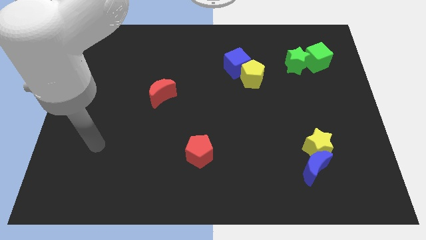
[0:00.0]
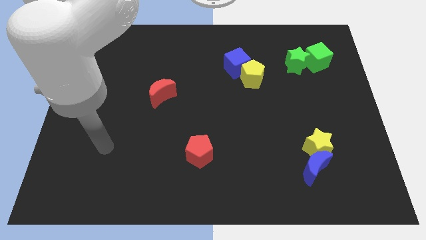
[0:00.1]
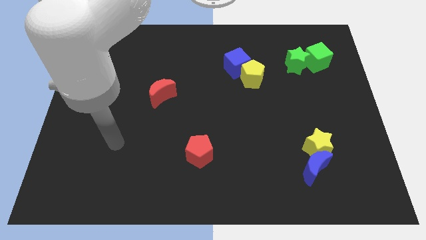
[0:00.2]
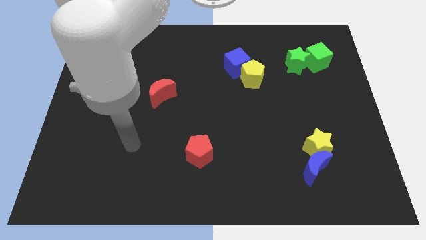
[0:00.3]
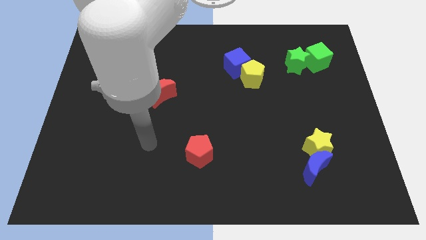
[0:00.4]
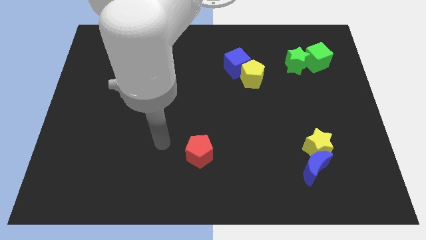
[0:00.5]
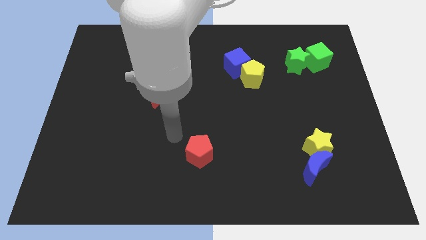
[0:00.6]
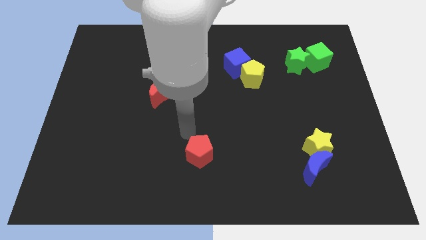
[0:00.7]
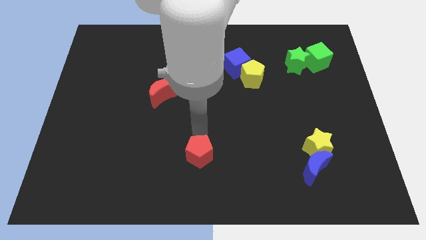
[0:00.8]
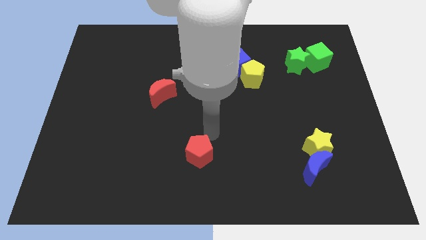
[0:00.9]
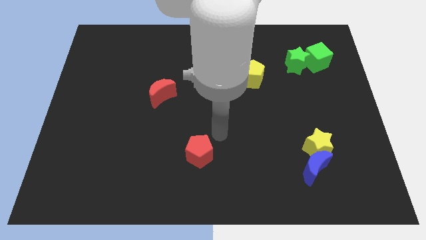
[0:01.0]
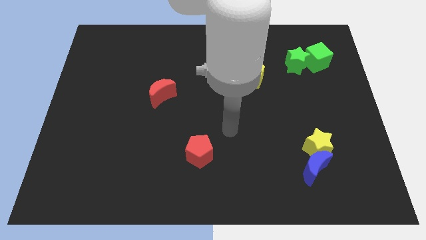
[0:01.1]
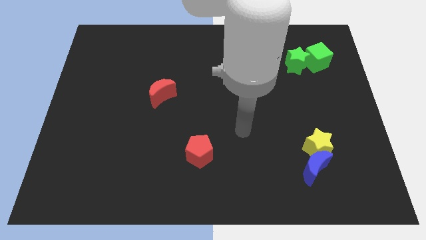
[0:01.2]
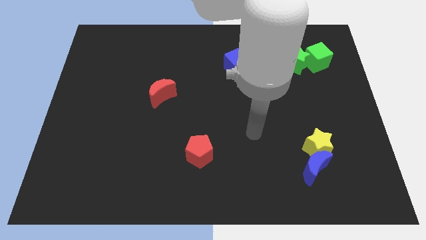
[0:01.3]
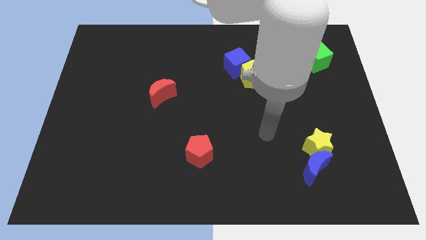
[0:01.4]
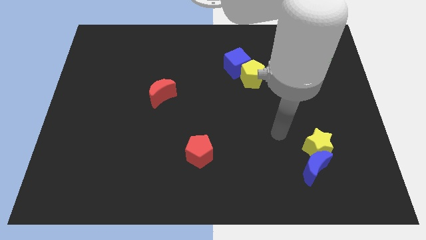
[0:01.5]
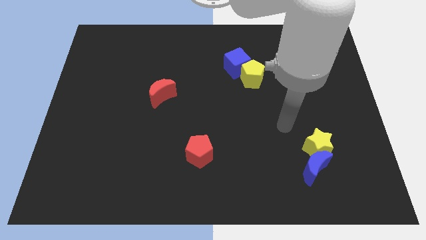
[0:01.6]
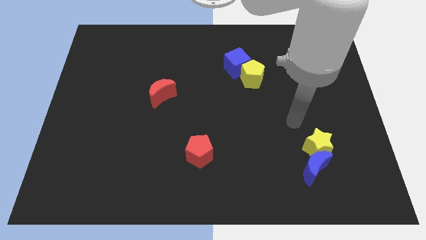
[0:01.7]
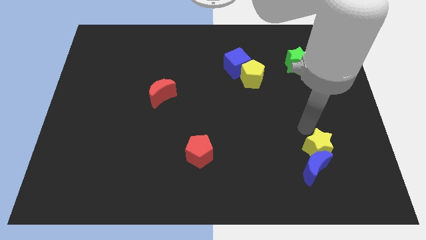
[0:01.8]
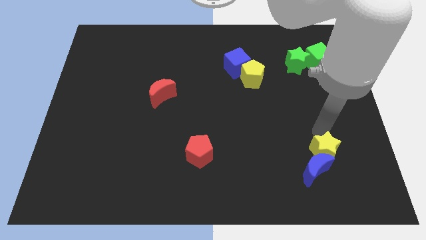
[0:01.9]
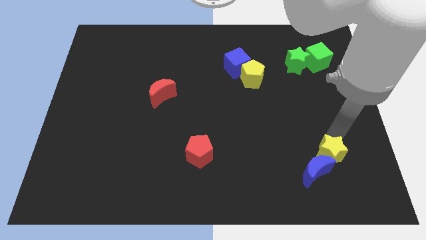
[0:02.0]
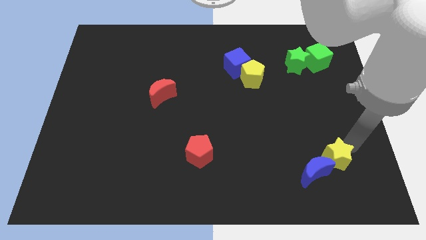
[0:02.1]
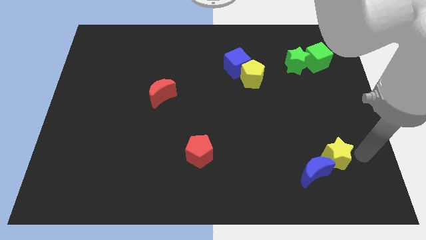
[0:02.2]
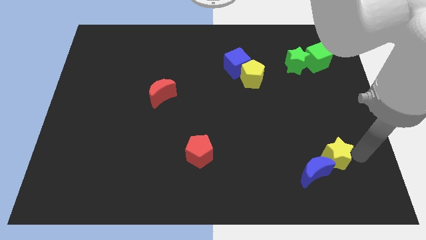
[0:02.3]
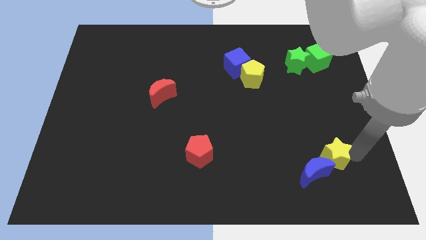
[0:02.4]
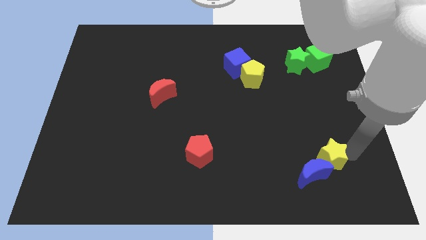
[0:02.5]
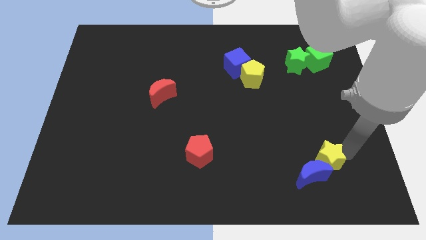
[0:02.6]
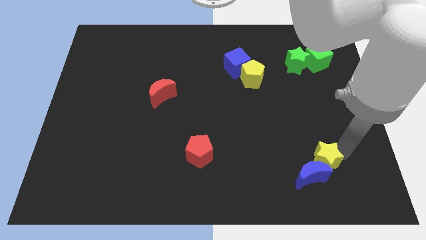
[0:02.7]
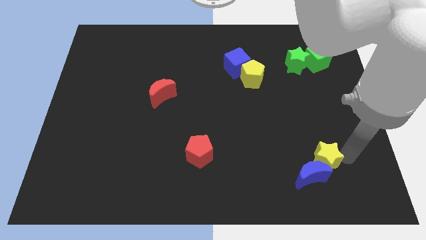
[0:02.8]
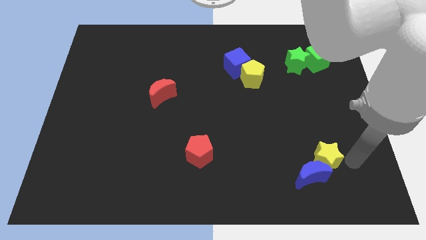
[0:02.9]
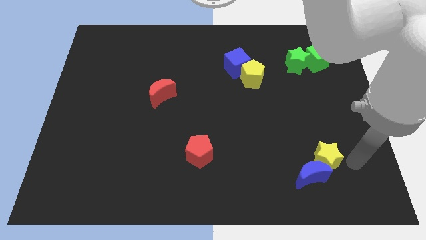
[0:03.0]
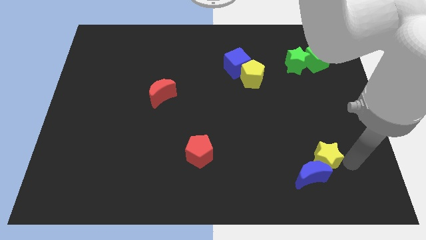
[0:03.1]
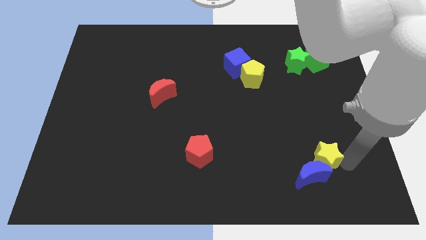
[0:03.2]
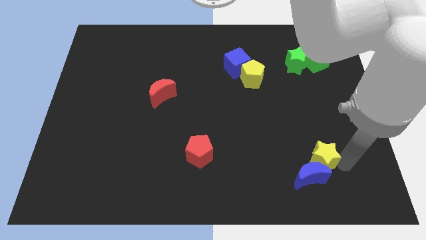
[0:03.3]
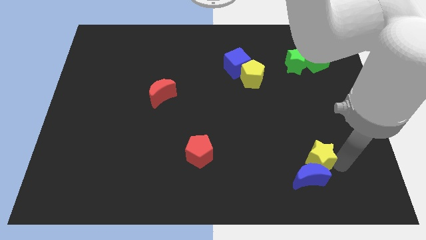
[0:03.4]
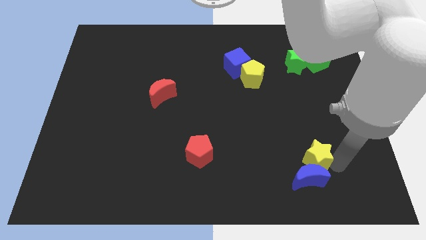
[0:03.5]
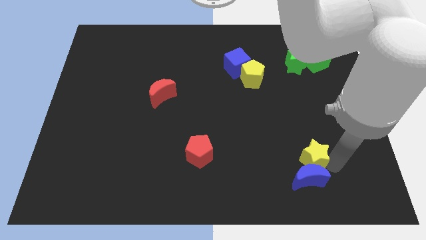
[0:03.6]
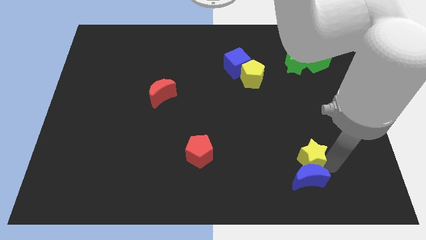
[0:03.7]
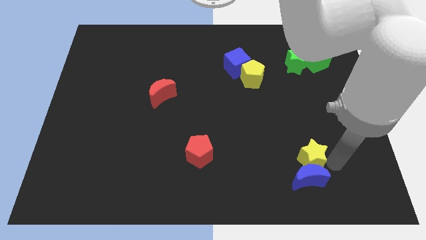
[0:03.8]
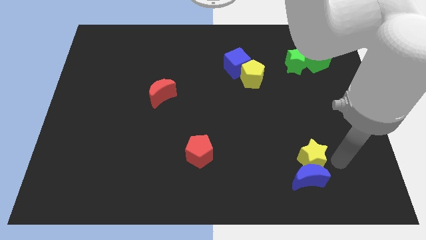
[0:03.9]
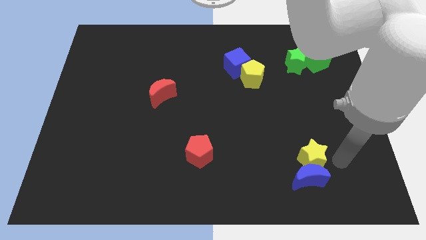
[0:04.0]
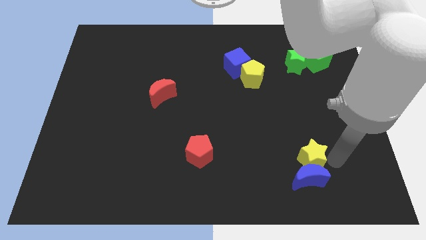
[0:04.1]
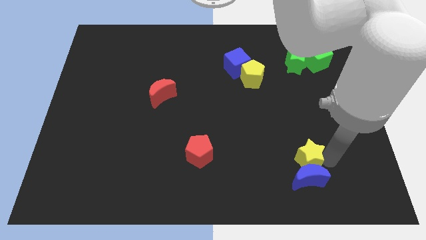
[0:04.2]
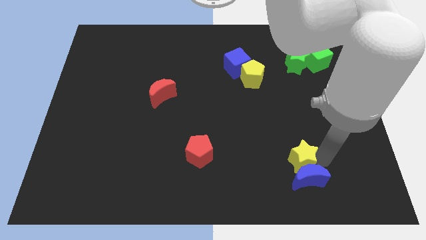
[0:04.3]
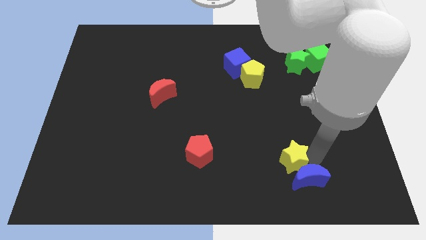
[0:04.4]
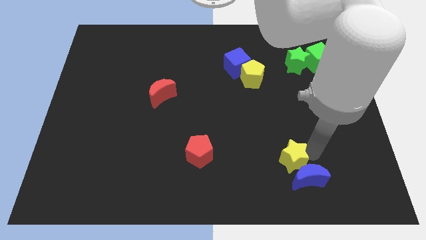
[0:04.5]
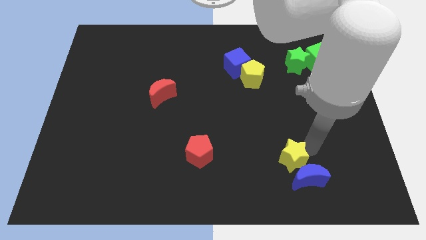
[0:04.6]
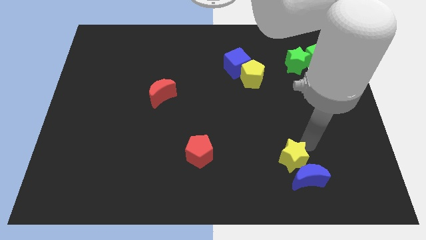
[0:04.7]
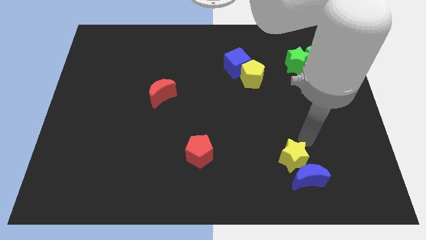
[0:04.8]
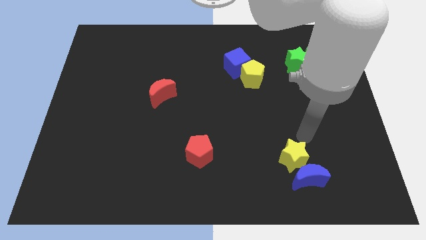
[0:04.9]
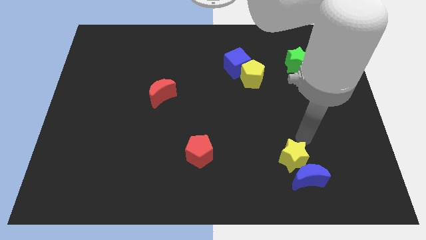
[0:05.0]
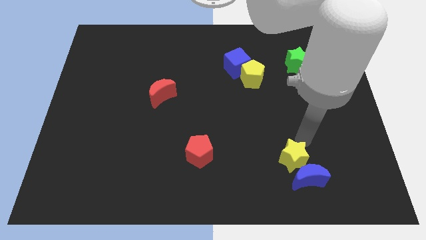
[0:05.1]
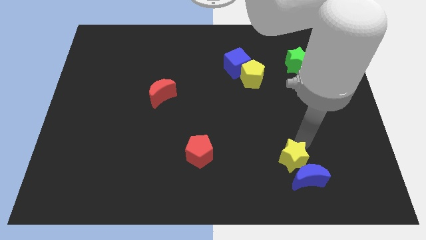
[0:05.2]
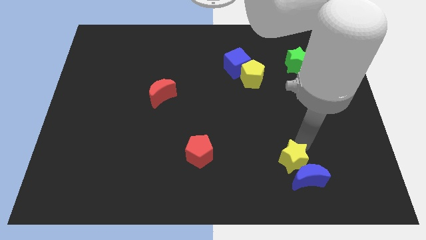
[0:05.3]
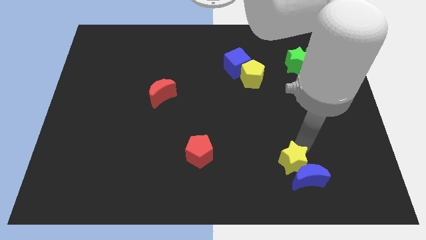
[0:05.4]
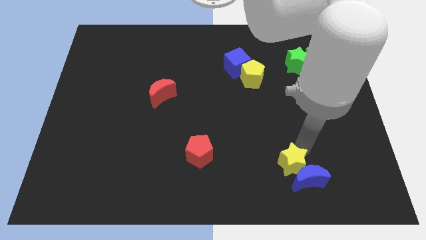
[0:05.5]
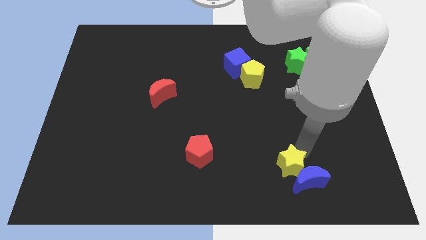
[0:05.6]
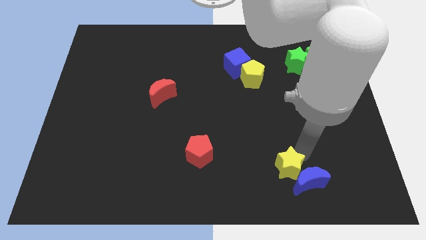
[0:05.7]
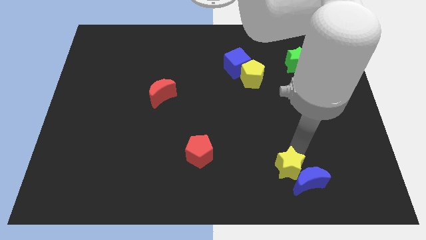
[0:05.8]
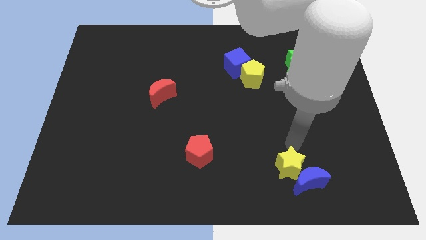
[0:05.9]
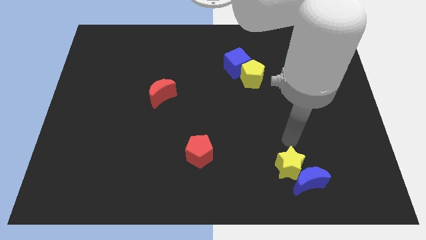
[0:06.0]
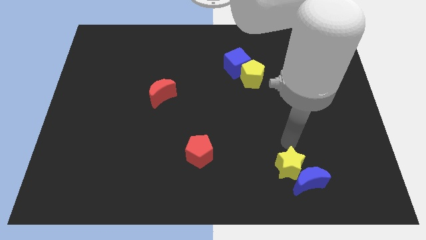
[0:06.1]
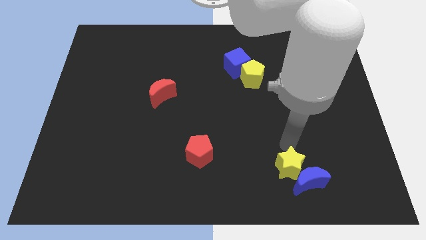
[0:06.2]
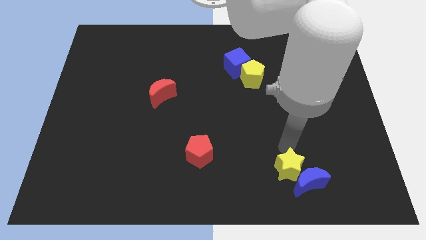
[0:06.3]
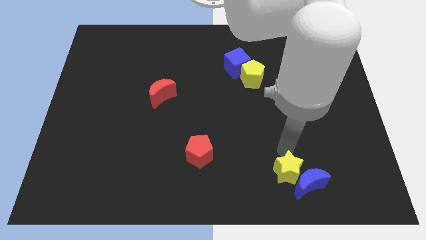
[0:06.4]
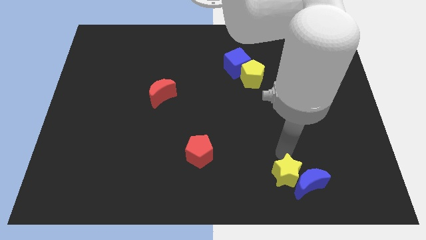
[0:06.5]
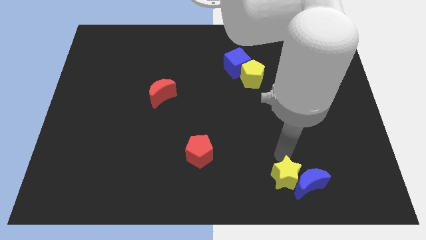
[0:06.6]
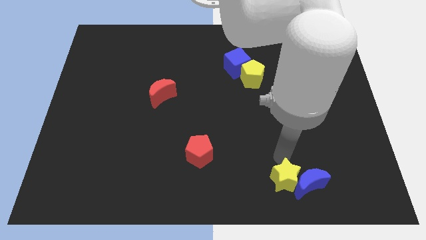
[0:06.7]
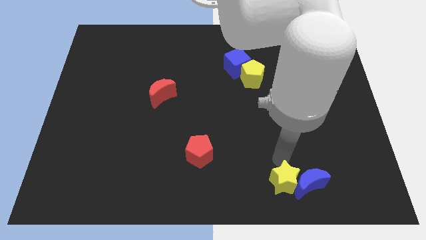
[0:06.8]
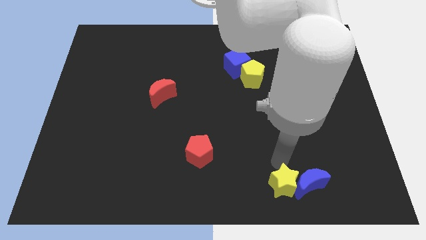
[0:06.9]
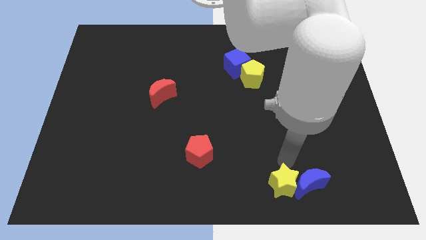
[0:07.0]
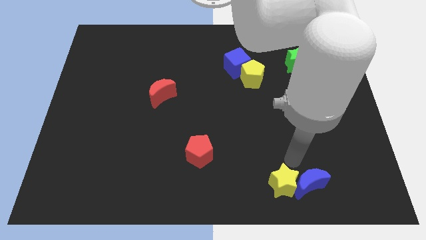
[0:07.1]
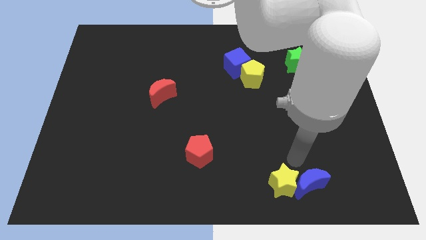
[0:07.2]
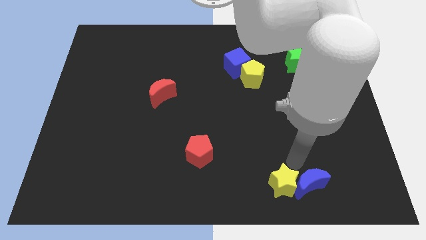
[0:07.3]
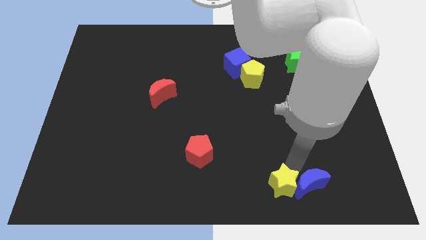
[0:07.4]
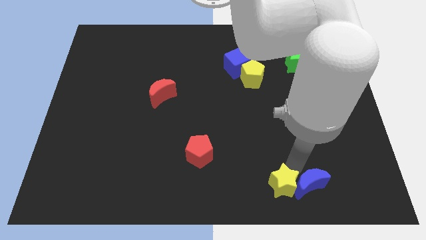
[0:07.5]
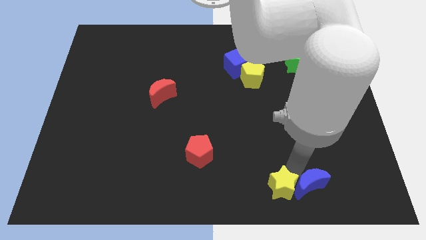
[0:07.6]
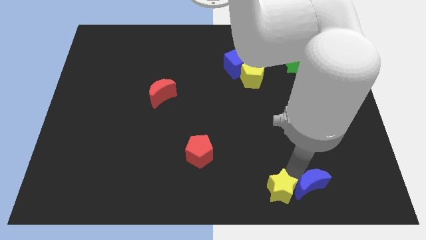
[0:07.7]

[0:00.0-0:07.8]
push the yellow star to the bottom side
